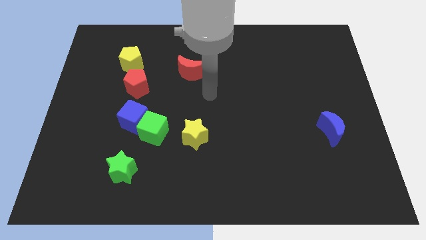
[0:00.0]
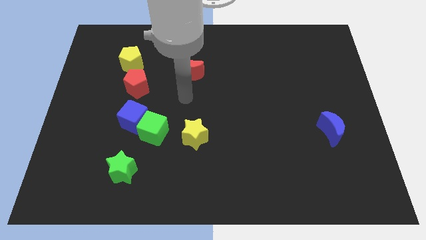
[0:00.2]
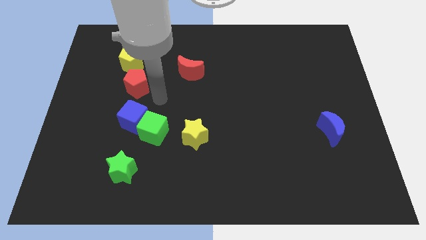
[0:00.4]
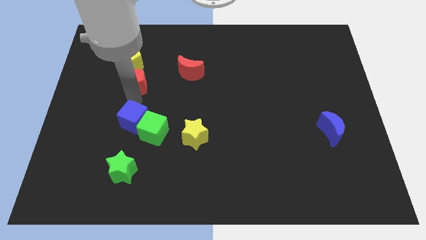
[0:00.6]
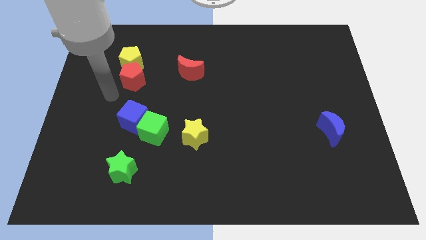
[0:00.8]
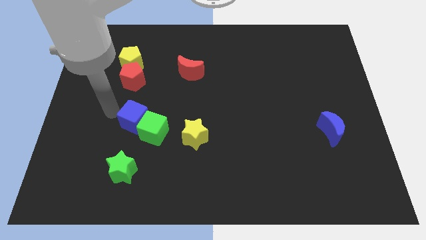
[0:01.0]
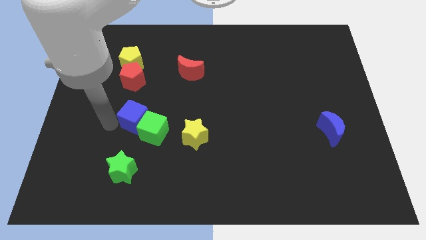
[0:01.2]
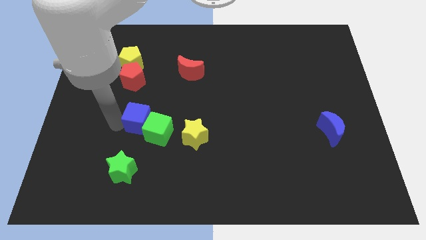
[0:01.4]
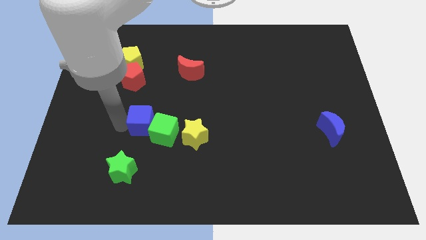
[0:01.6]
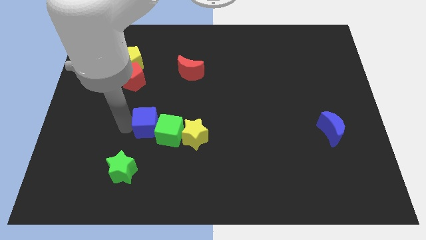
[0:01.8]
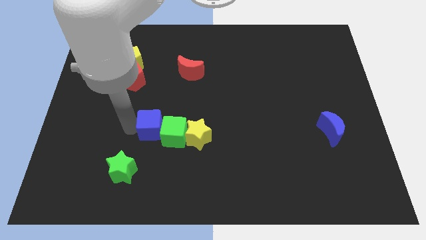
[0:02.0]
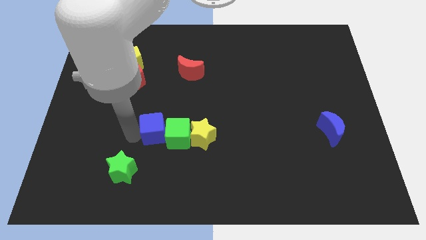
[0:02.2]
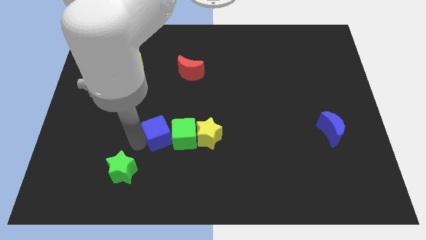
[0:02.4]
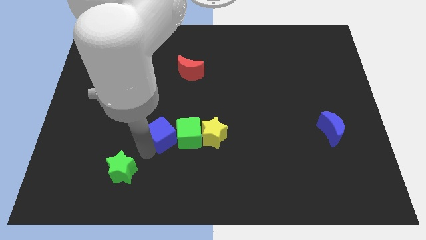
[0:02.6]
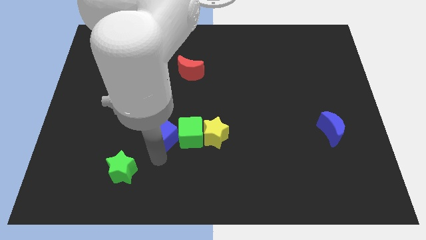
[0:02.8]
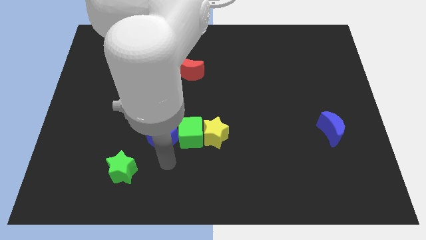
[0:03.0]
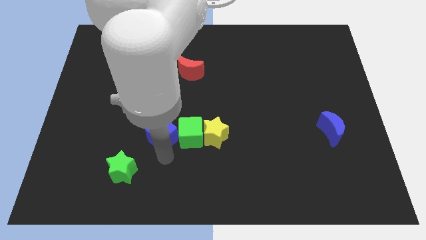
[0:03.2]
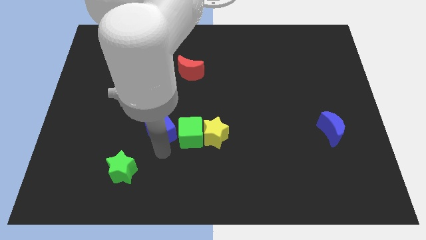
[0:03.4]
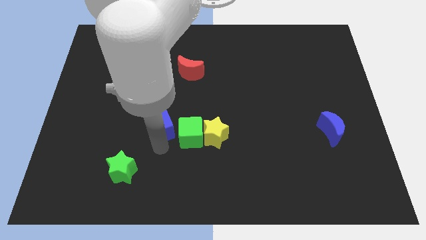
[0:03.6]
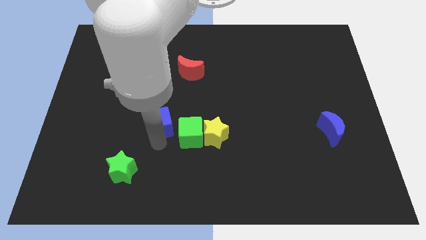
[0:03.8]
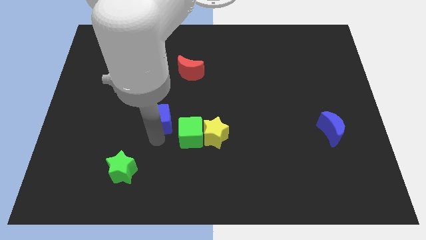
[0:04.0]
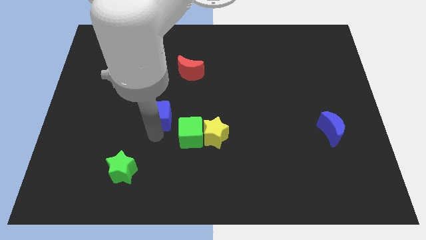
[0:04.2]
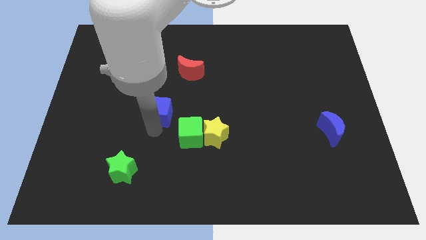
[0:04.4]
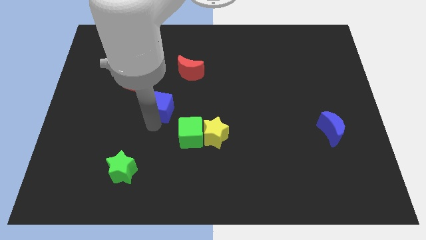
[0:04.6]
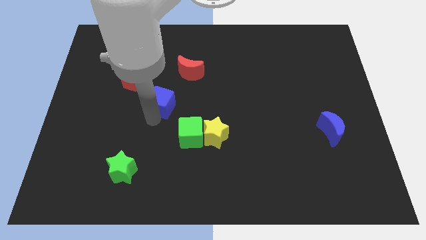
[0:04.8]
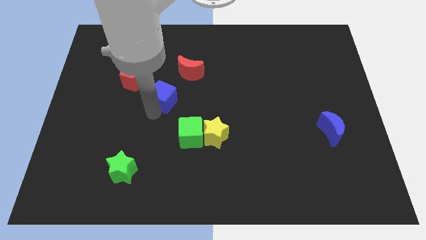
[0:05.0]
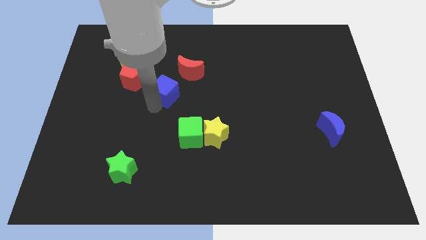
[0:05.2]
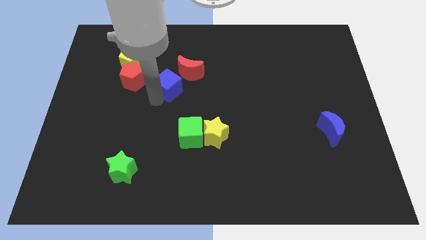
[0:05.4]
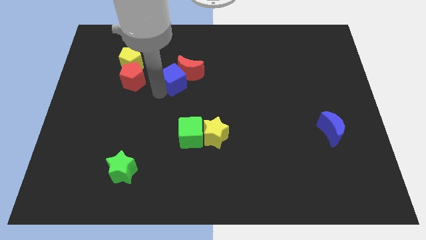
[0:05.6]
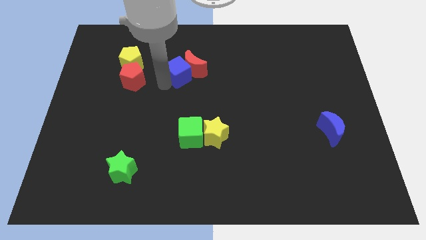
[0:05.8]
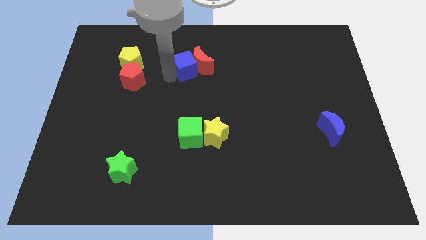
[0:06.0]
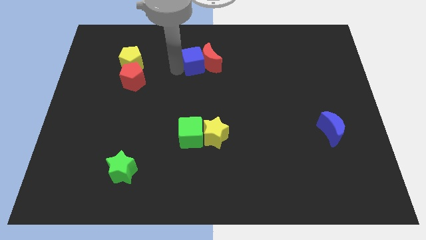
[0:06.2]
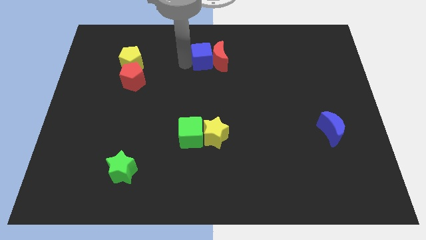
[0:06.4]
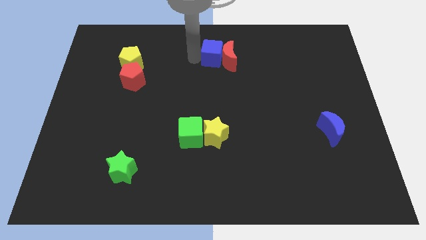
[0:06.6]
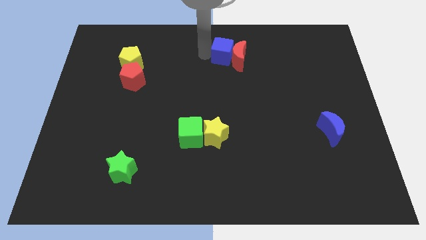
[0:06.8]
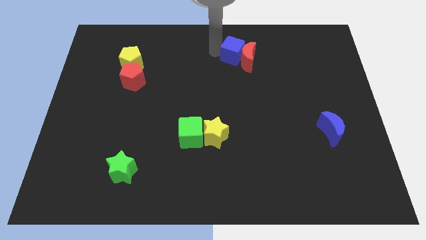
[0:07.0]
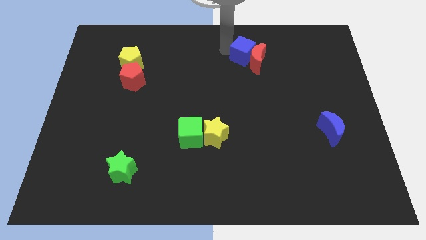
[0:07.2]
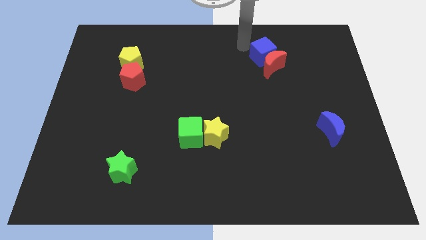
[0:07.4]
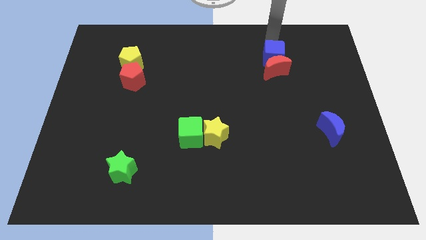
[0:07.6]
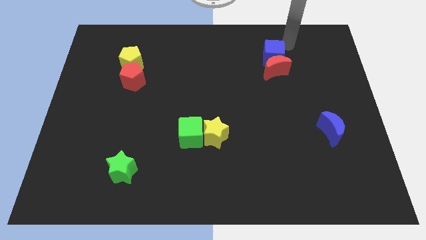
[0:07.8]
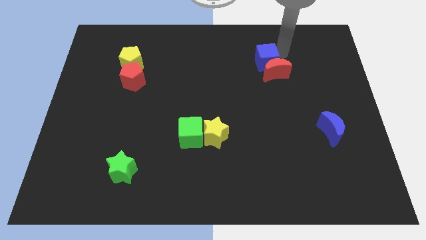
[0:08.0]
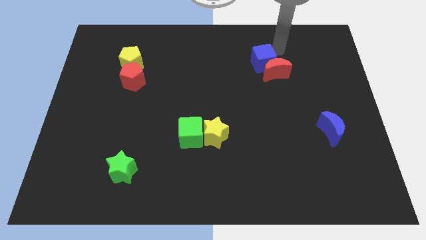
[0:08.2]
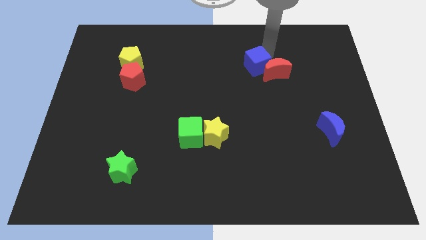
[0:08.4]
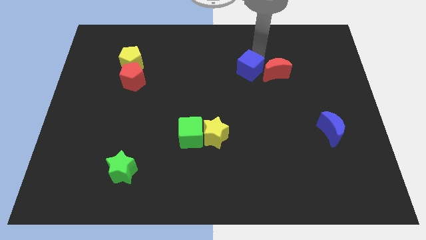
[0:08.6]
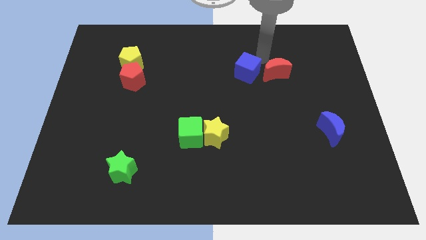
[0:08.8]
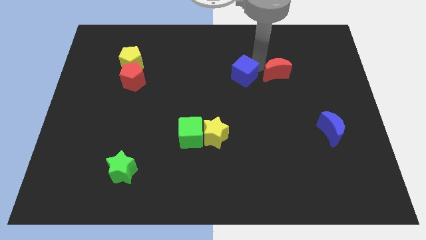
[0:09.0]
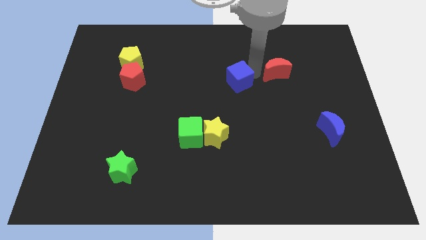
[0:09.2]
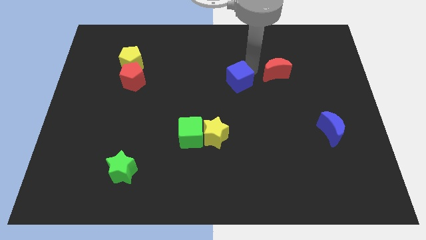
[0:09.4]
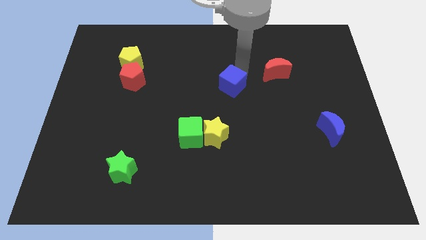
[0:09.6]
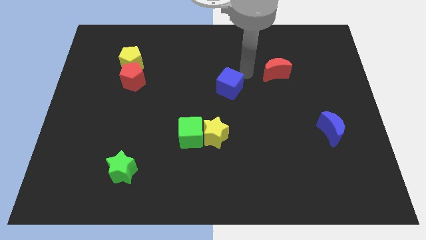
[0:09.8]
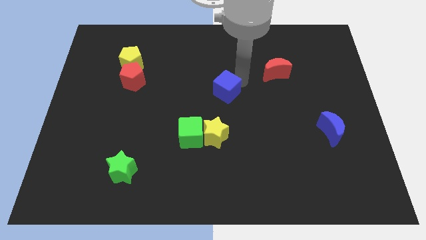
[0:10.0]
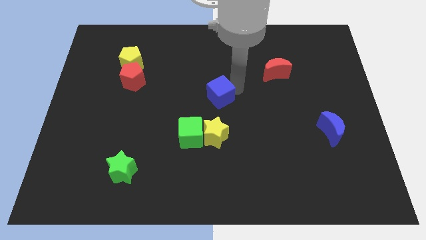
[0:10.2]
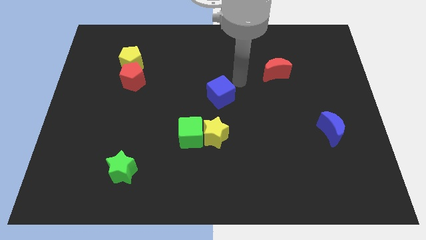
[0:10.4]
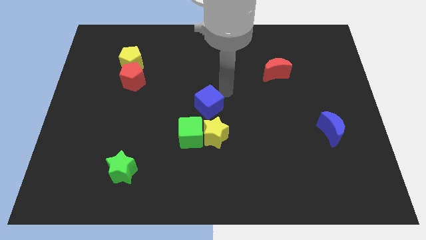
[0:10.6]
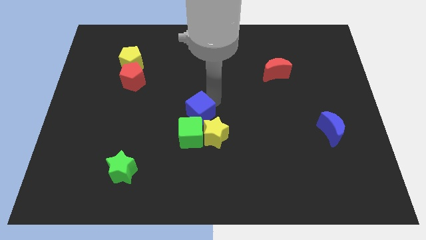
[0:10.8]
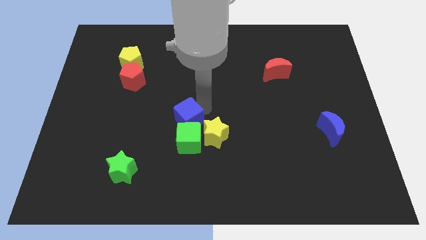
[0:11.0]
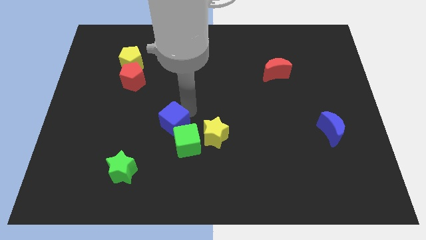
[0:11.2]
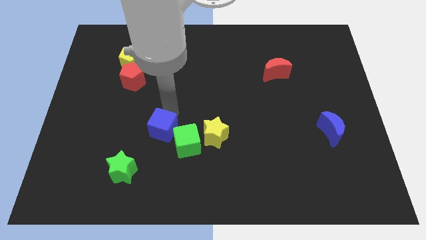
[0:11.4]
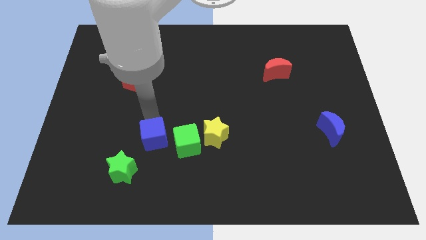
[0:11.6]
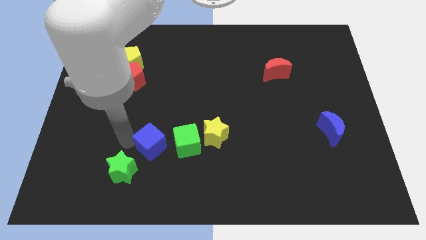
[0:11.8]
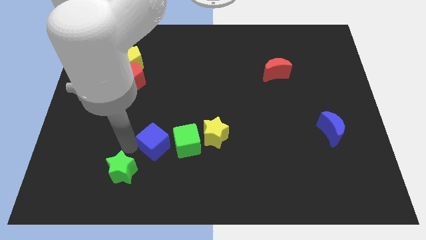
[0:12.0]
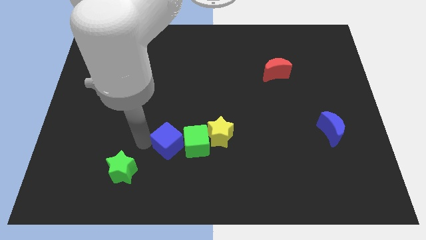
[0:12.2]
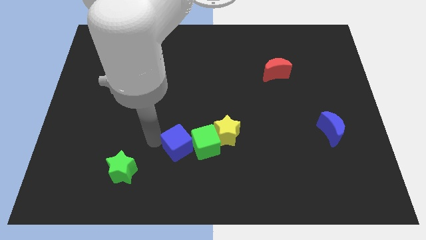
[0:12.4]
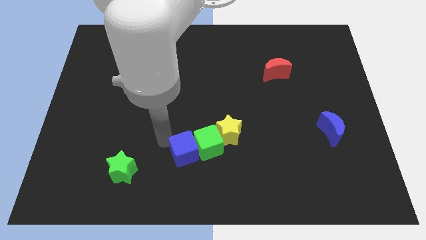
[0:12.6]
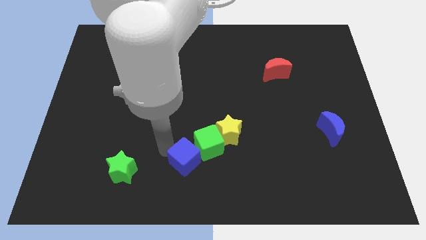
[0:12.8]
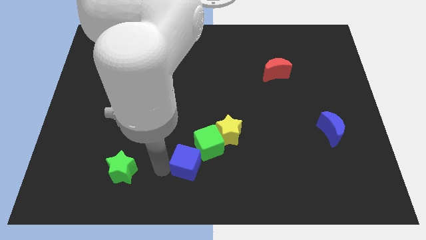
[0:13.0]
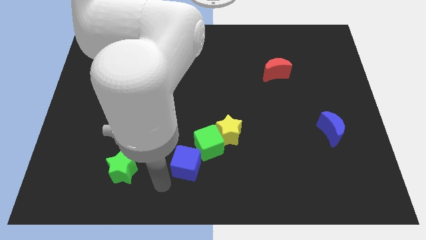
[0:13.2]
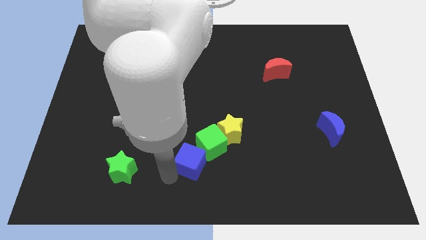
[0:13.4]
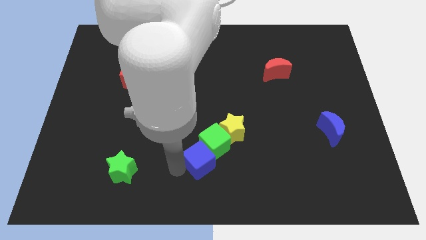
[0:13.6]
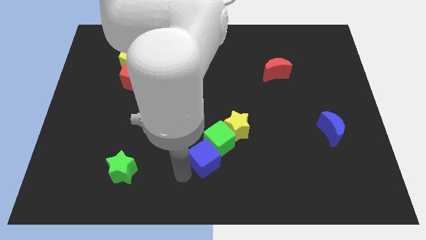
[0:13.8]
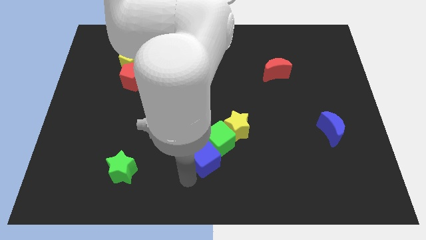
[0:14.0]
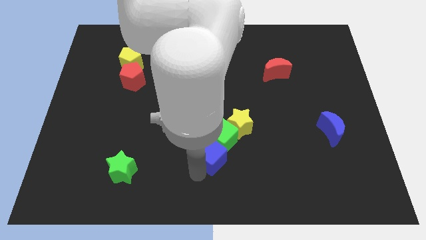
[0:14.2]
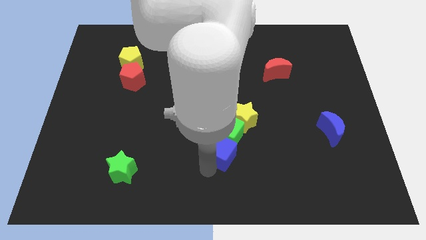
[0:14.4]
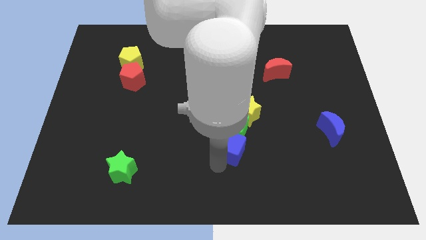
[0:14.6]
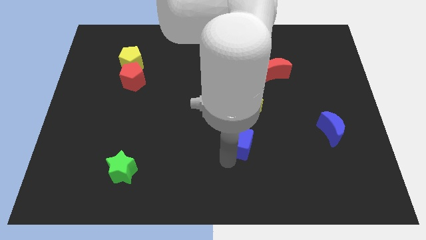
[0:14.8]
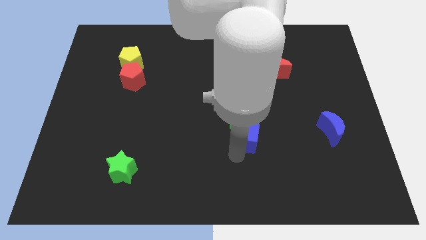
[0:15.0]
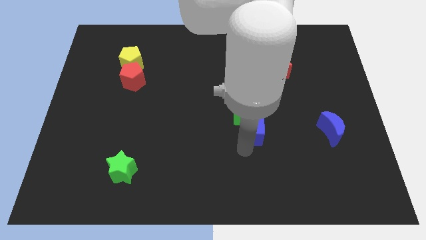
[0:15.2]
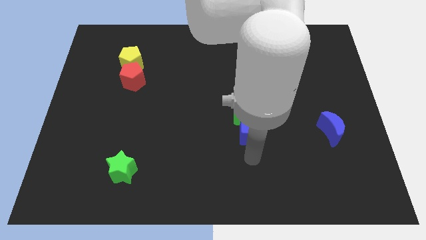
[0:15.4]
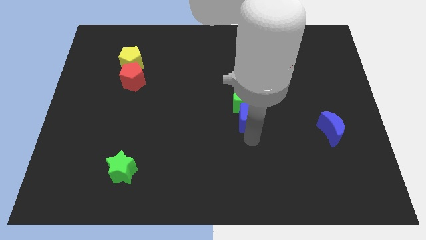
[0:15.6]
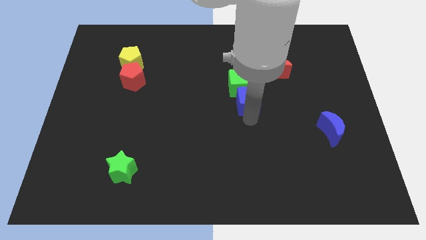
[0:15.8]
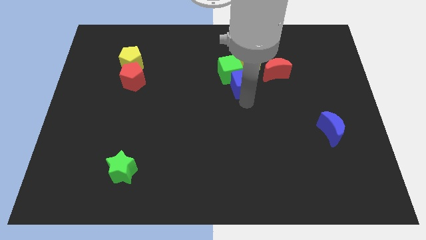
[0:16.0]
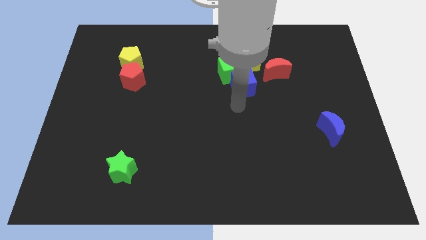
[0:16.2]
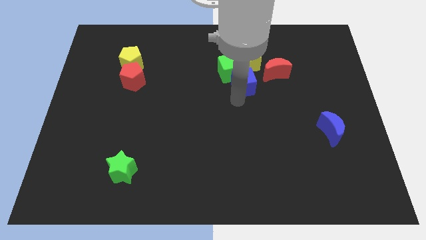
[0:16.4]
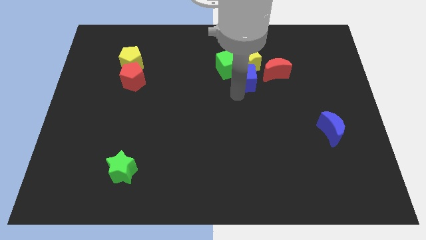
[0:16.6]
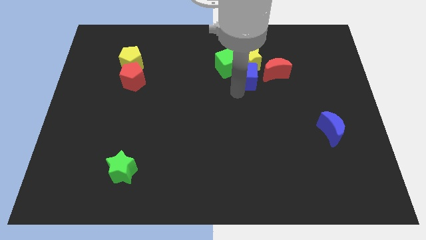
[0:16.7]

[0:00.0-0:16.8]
move the blue cube to the yellow star
